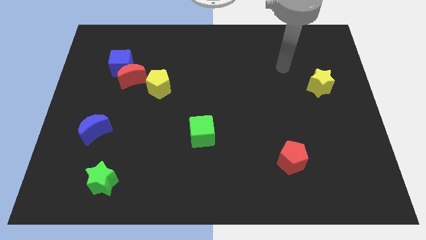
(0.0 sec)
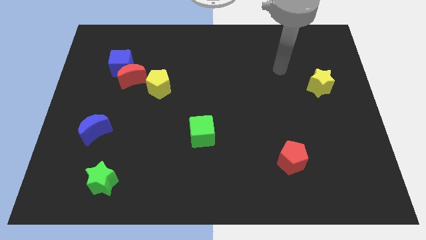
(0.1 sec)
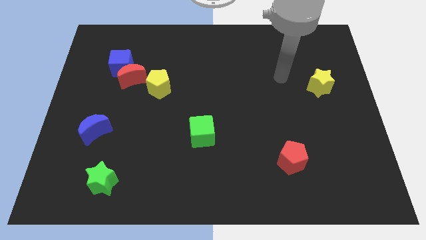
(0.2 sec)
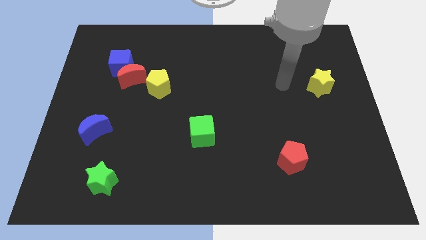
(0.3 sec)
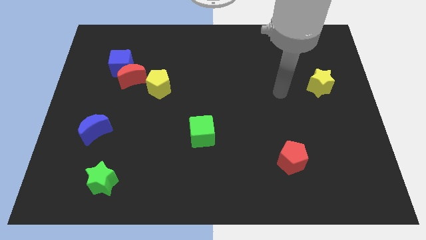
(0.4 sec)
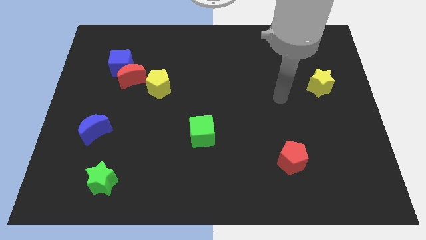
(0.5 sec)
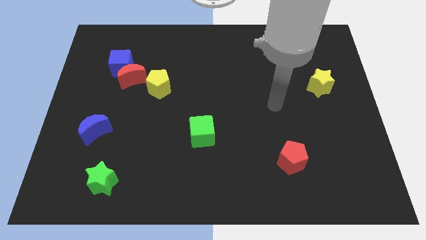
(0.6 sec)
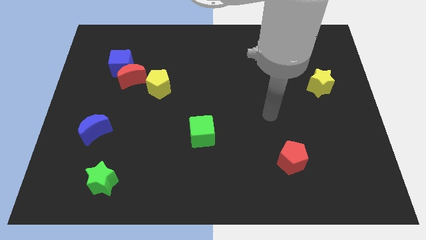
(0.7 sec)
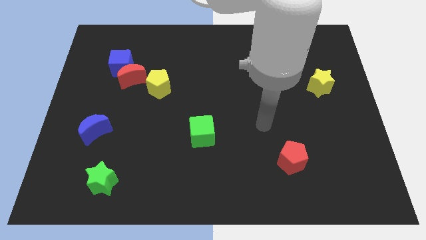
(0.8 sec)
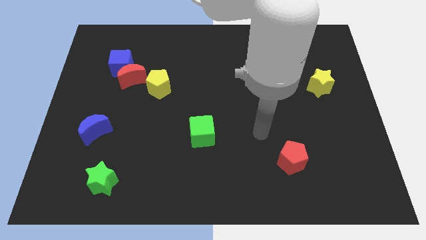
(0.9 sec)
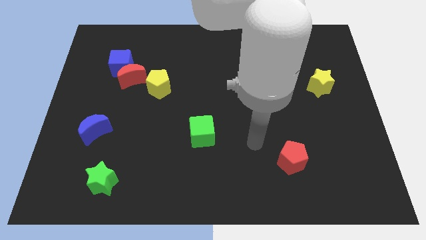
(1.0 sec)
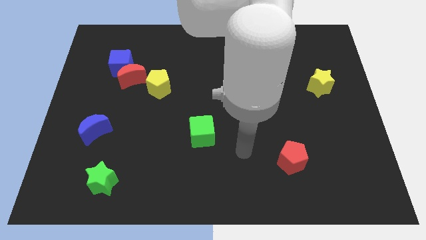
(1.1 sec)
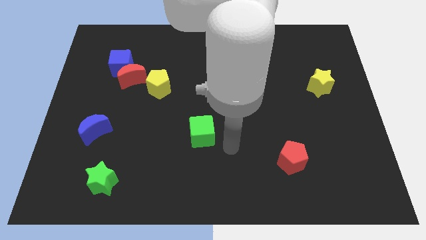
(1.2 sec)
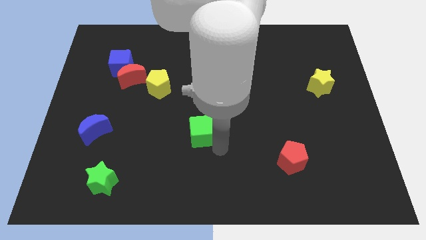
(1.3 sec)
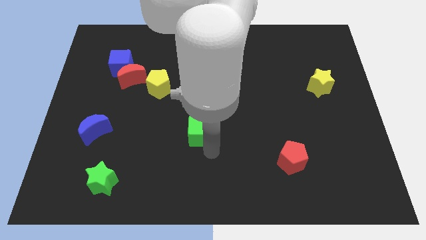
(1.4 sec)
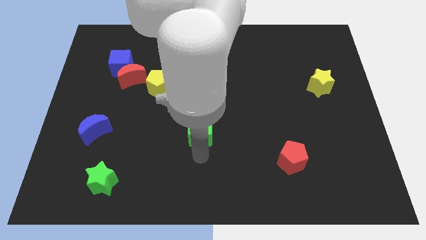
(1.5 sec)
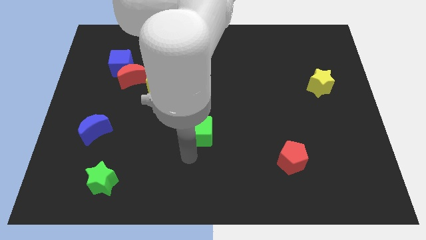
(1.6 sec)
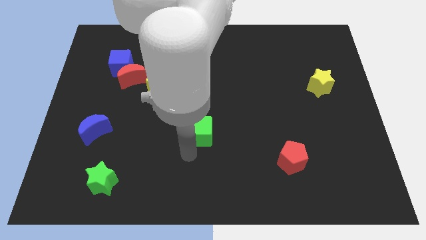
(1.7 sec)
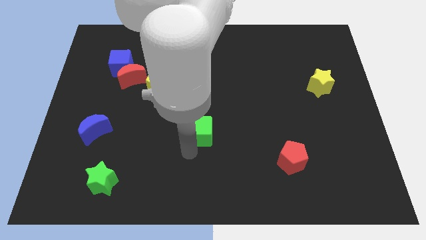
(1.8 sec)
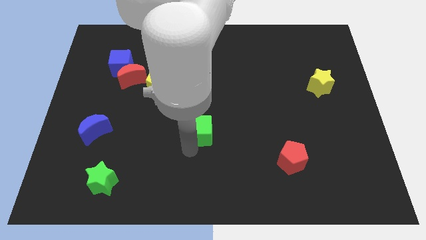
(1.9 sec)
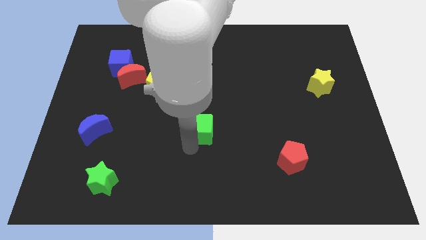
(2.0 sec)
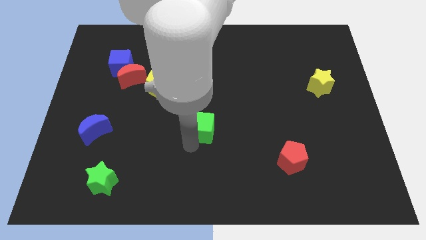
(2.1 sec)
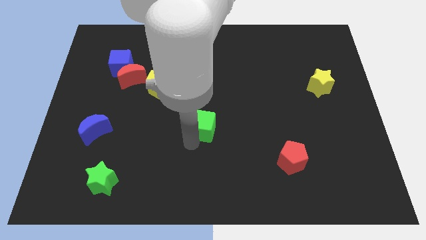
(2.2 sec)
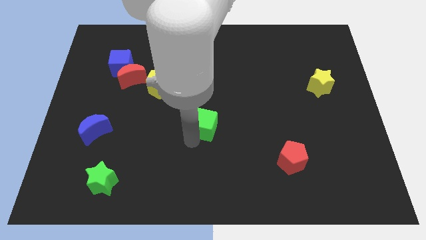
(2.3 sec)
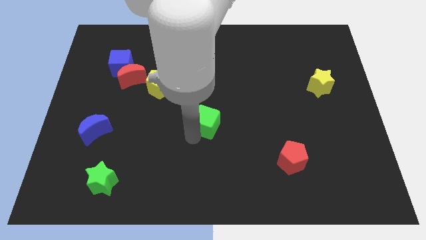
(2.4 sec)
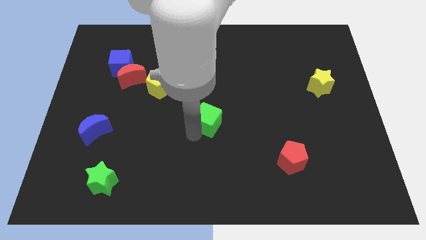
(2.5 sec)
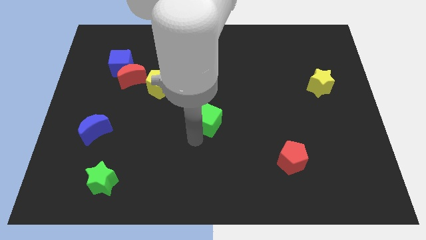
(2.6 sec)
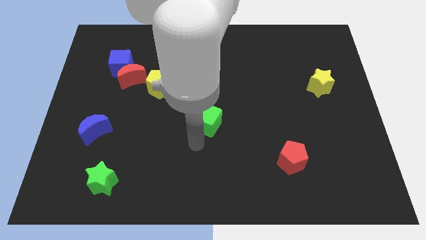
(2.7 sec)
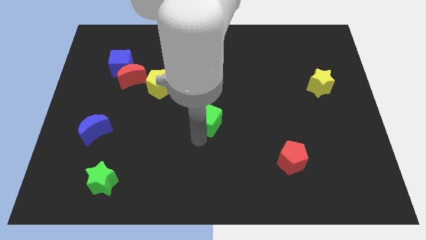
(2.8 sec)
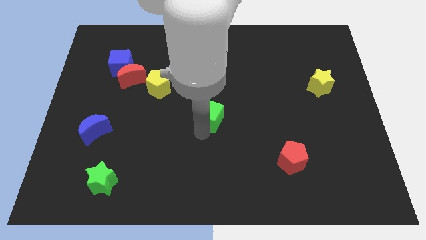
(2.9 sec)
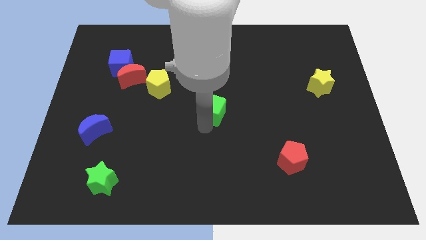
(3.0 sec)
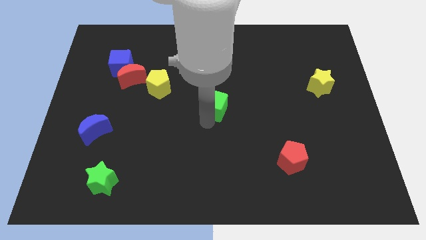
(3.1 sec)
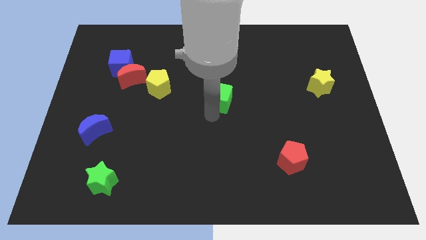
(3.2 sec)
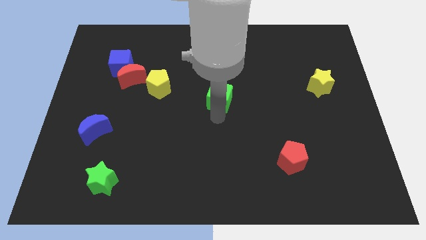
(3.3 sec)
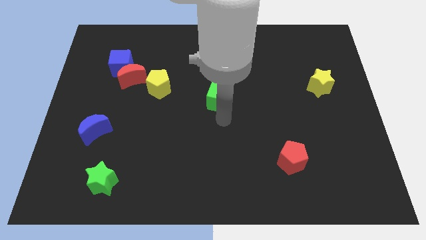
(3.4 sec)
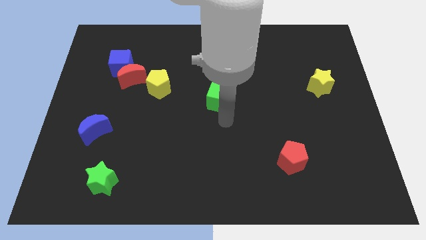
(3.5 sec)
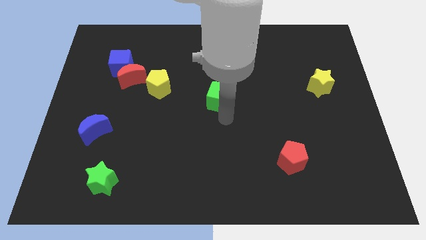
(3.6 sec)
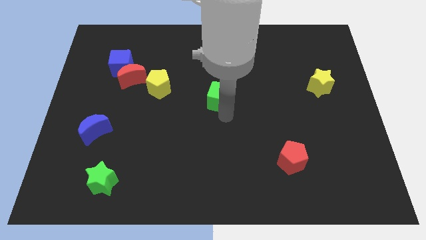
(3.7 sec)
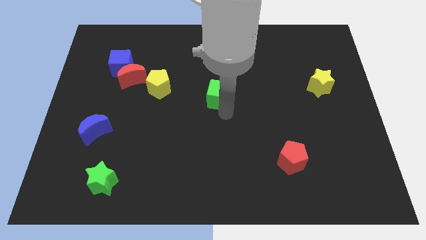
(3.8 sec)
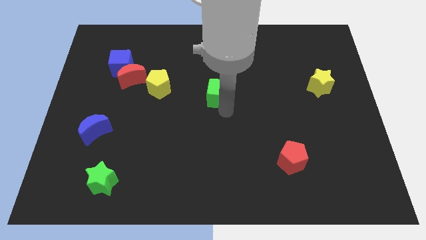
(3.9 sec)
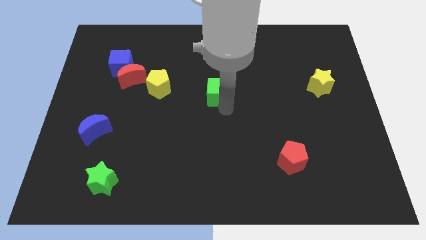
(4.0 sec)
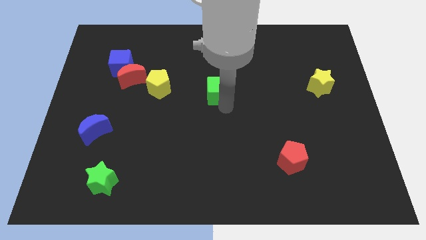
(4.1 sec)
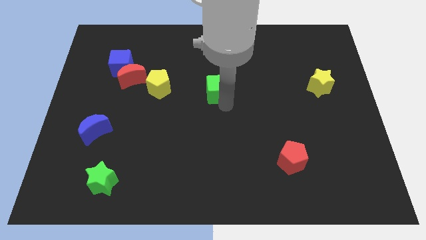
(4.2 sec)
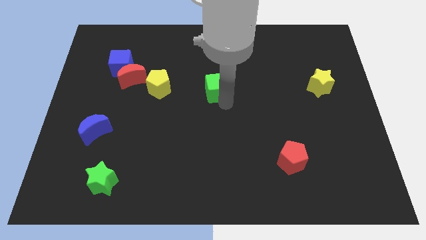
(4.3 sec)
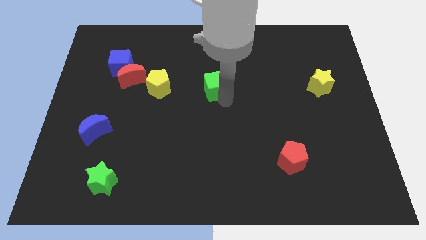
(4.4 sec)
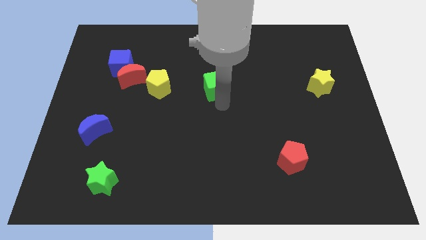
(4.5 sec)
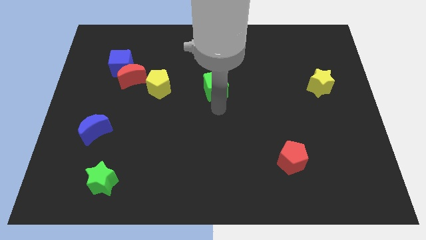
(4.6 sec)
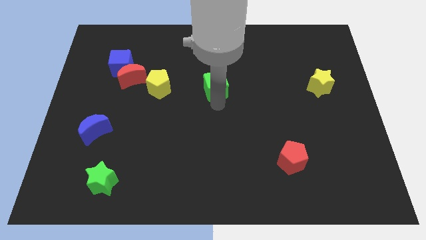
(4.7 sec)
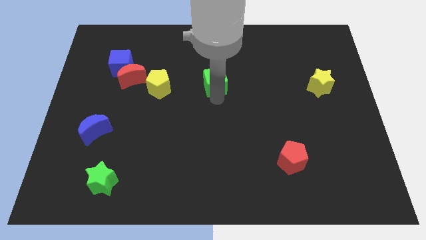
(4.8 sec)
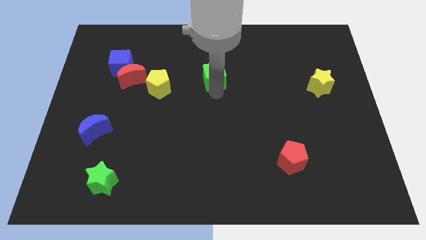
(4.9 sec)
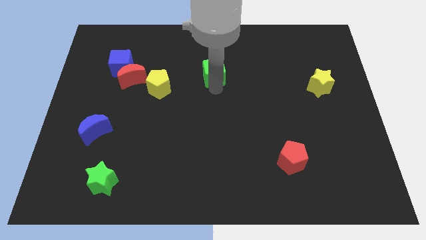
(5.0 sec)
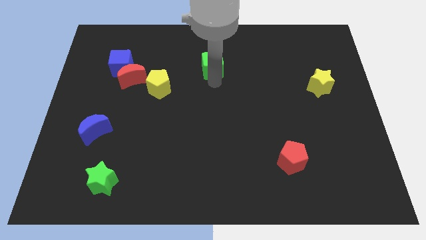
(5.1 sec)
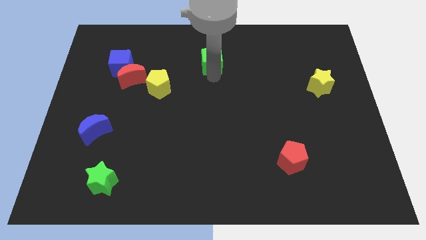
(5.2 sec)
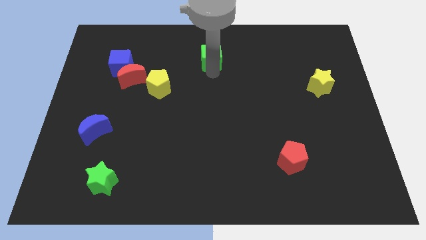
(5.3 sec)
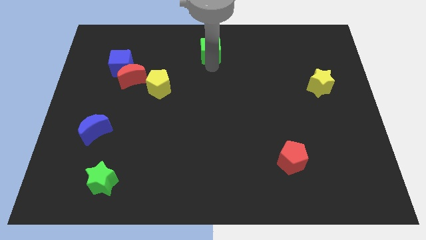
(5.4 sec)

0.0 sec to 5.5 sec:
slide the green cube to the top side

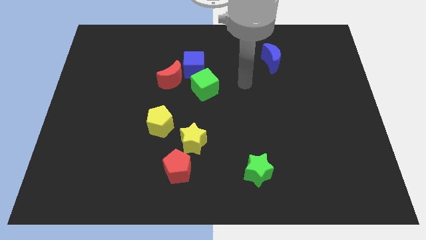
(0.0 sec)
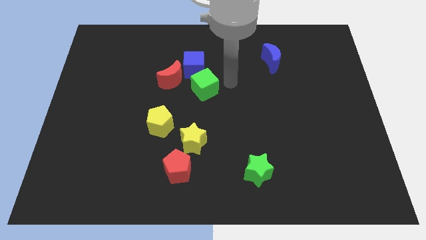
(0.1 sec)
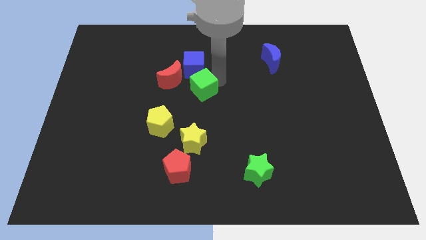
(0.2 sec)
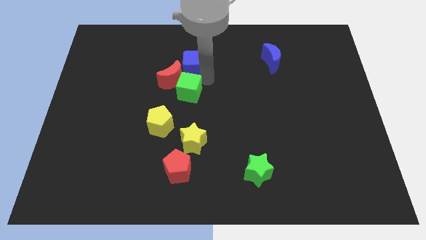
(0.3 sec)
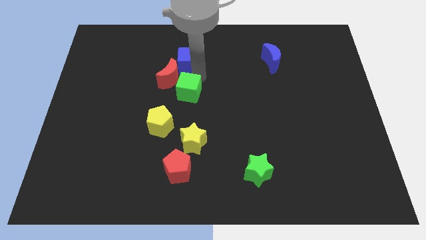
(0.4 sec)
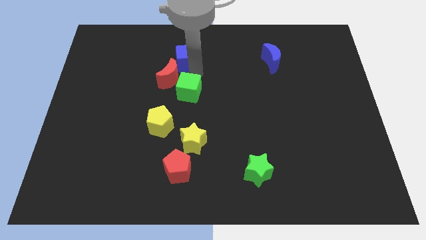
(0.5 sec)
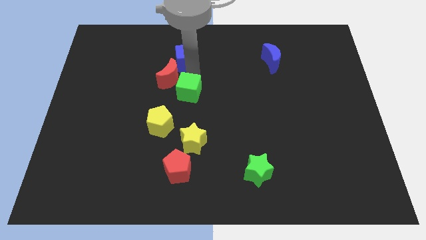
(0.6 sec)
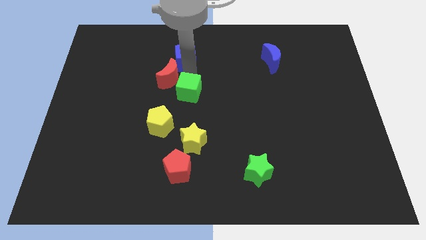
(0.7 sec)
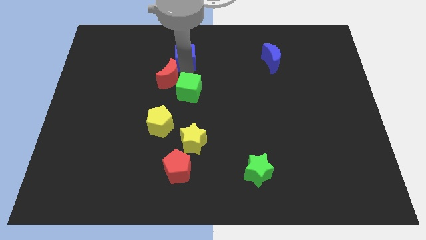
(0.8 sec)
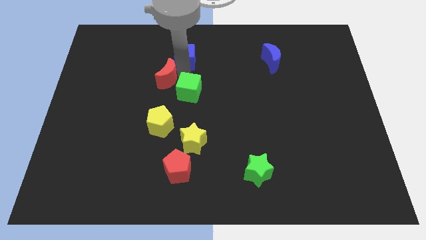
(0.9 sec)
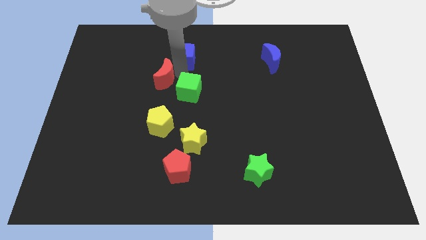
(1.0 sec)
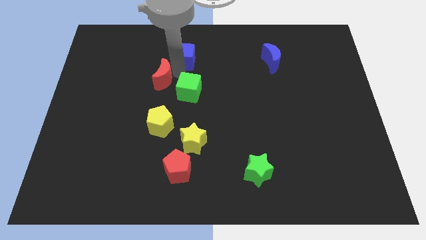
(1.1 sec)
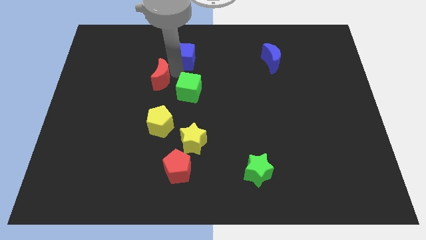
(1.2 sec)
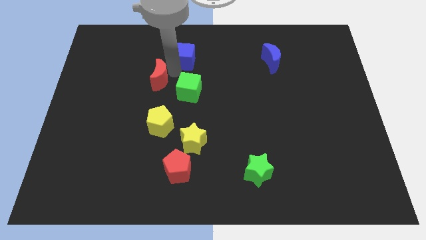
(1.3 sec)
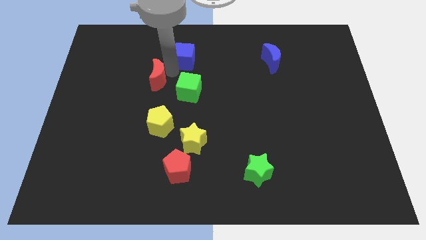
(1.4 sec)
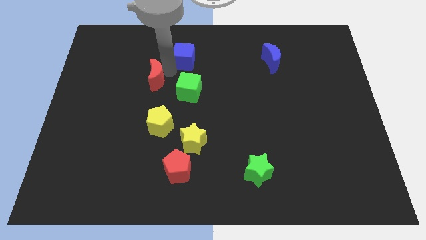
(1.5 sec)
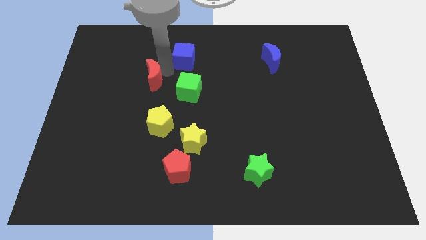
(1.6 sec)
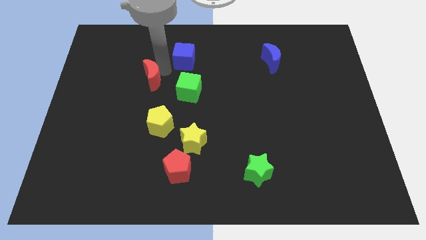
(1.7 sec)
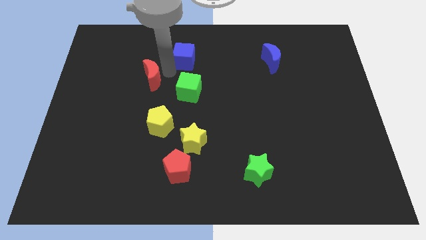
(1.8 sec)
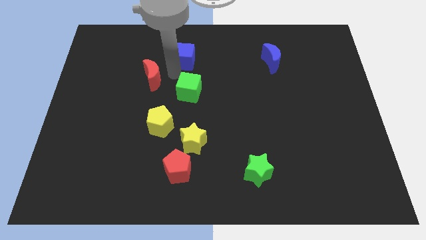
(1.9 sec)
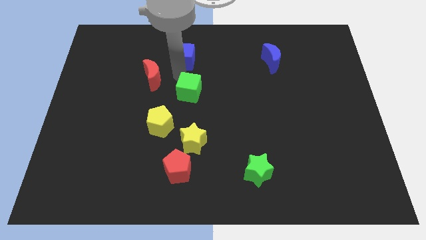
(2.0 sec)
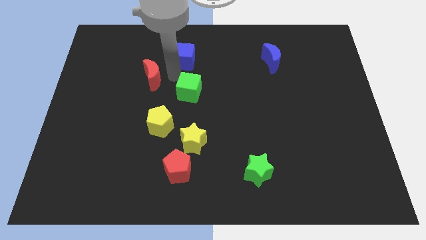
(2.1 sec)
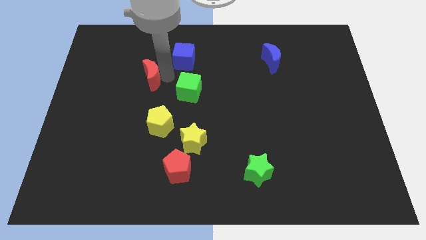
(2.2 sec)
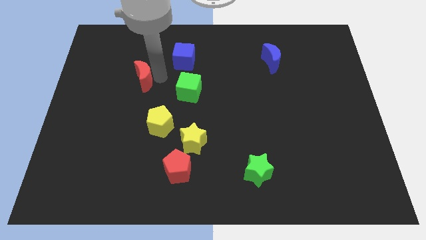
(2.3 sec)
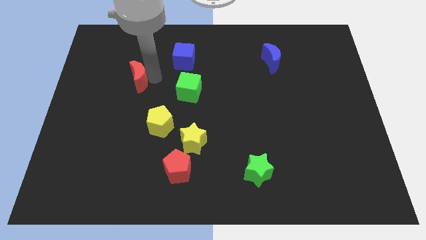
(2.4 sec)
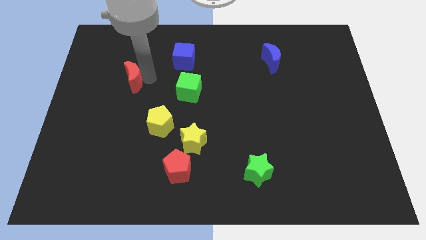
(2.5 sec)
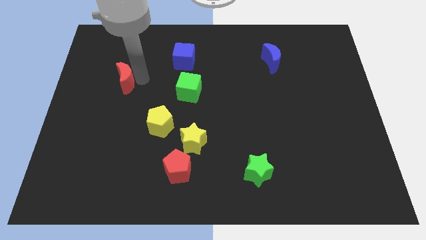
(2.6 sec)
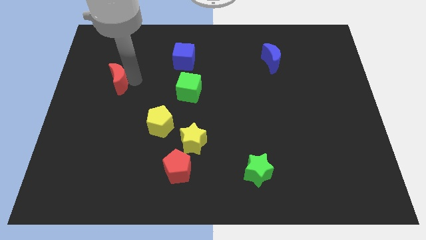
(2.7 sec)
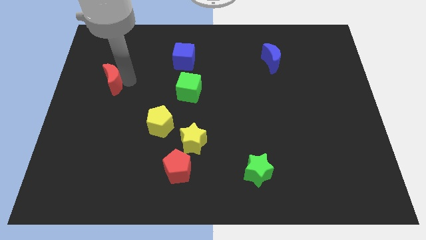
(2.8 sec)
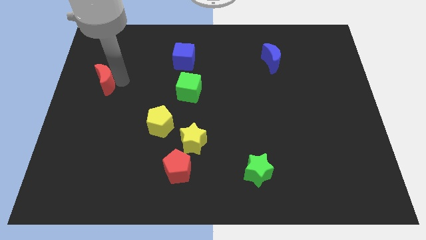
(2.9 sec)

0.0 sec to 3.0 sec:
slide the red moon to the left side
